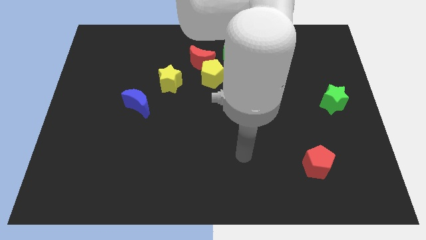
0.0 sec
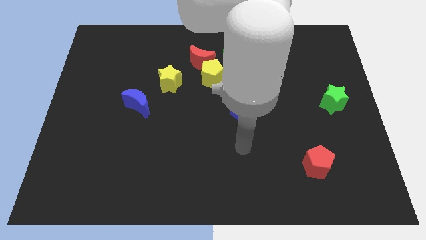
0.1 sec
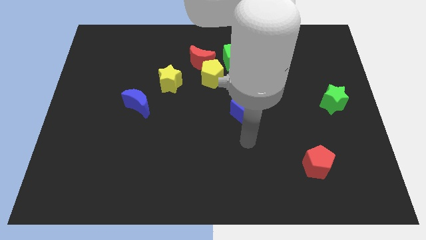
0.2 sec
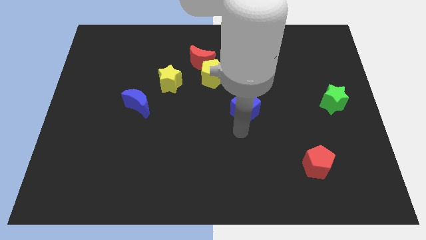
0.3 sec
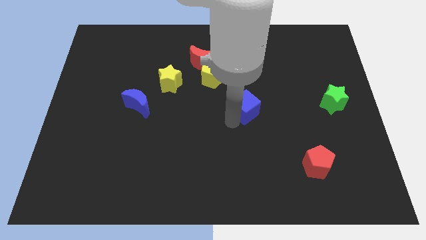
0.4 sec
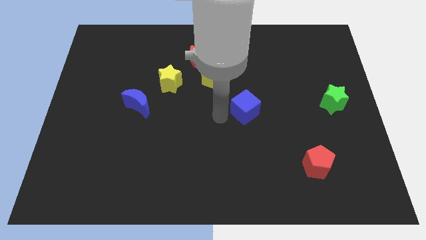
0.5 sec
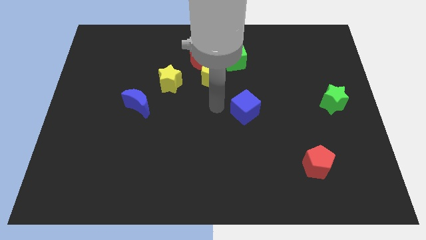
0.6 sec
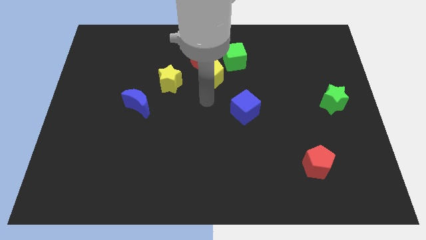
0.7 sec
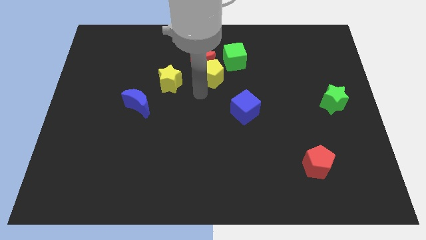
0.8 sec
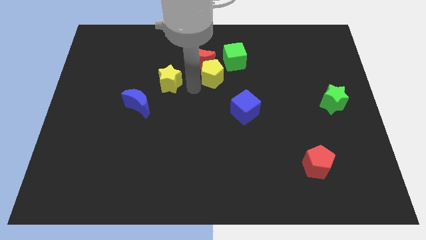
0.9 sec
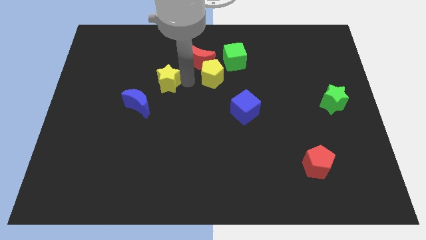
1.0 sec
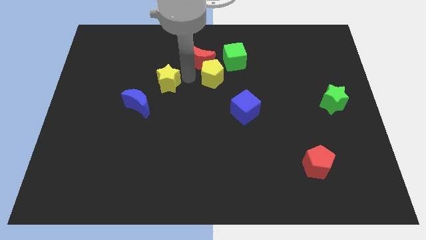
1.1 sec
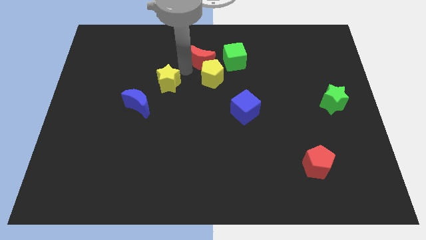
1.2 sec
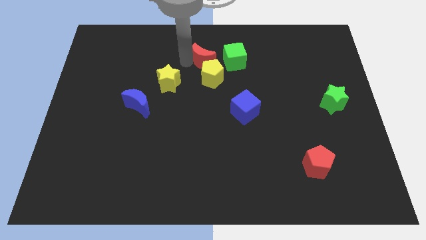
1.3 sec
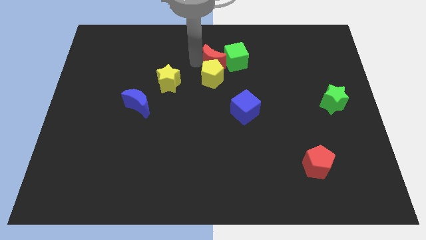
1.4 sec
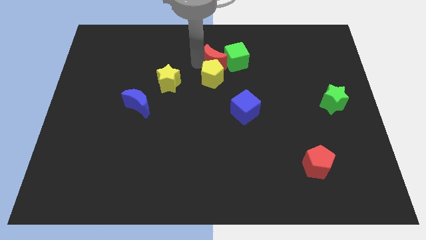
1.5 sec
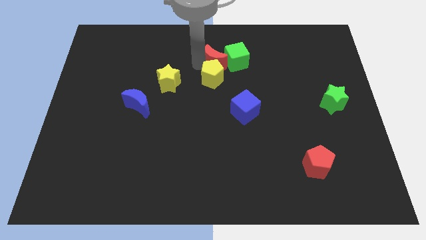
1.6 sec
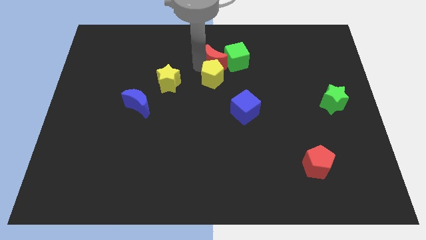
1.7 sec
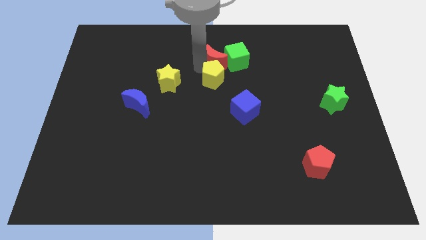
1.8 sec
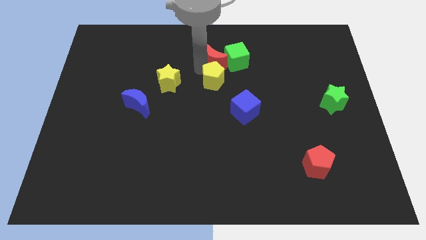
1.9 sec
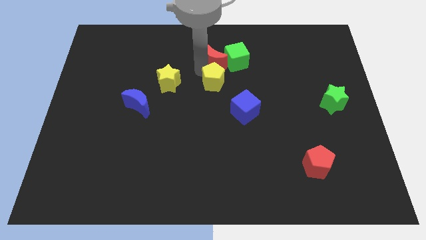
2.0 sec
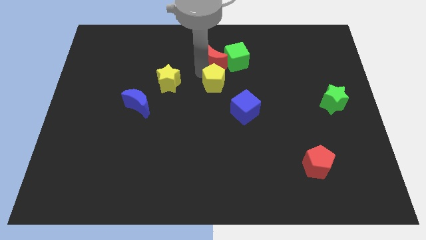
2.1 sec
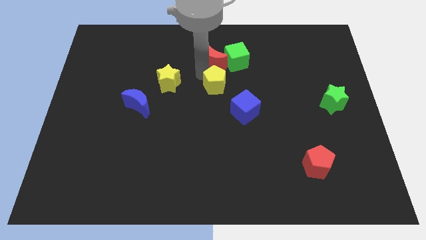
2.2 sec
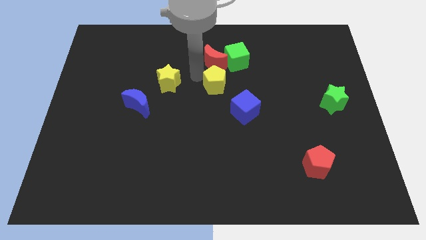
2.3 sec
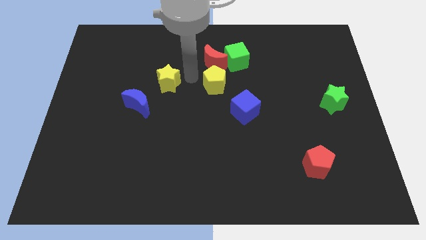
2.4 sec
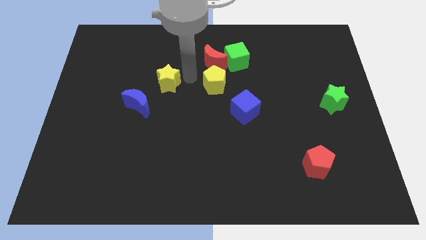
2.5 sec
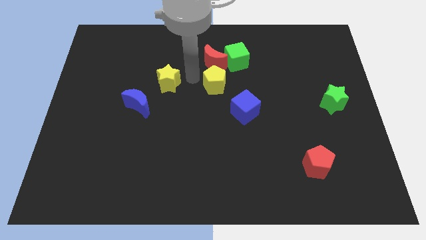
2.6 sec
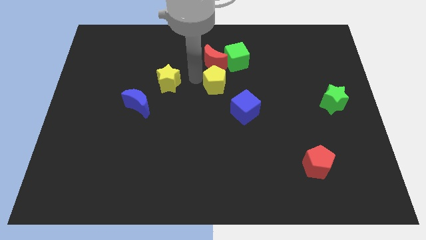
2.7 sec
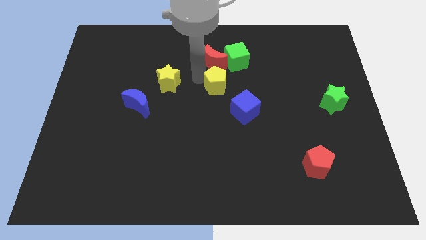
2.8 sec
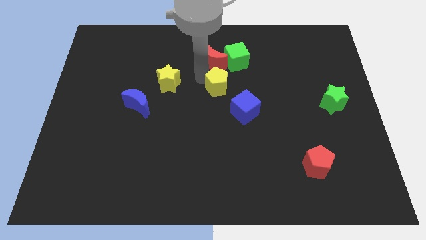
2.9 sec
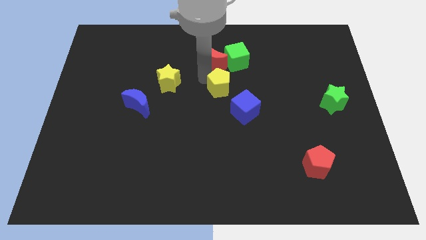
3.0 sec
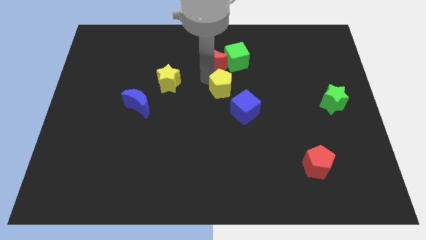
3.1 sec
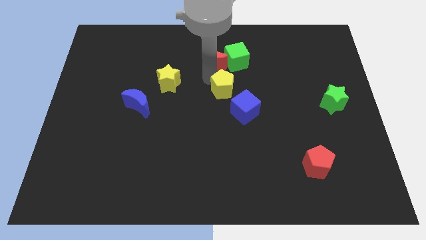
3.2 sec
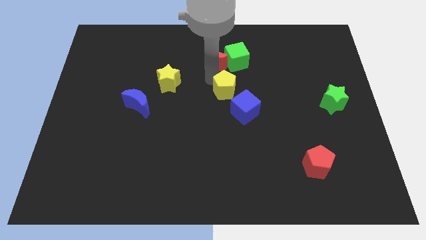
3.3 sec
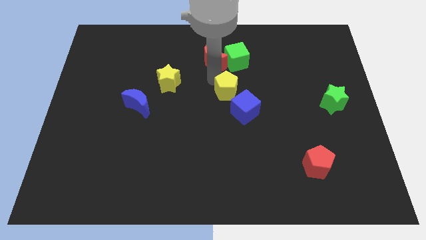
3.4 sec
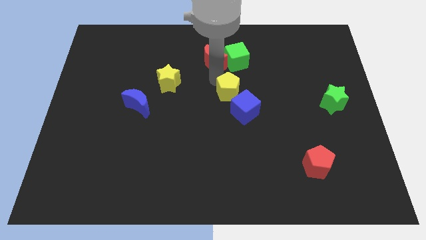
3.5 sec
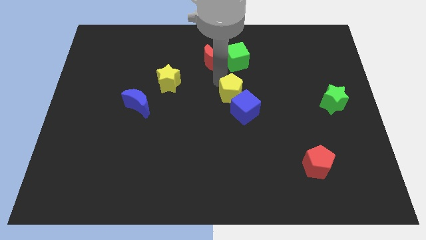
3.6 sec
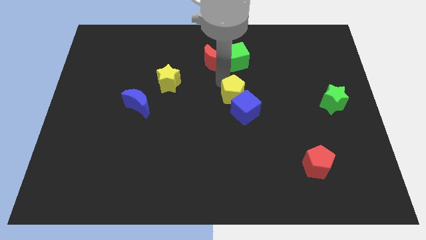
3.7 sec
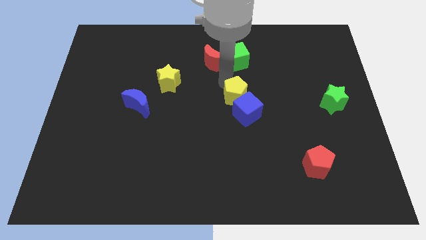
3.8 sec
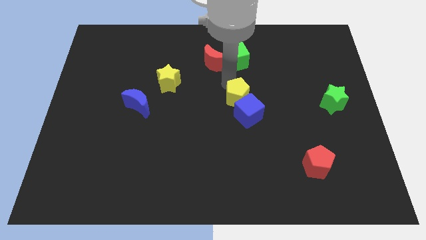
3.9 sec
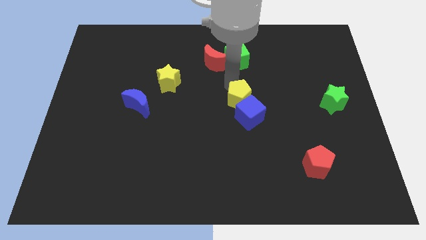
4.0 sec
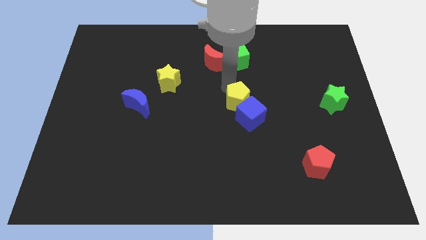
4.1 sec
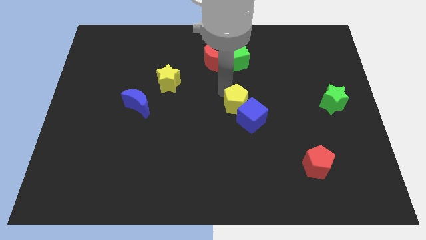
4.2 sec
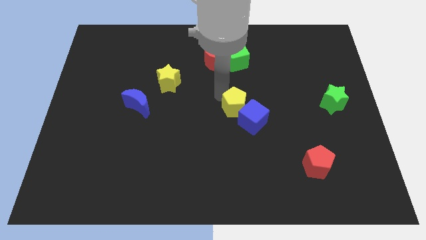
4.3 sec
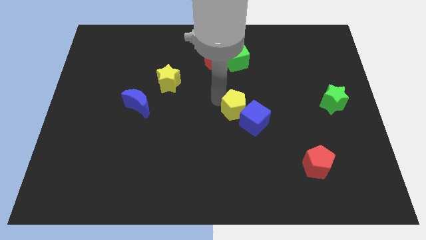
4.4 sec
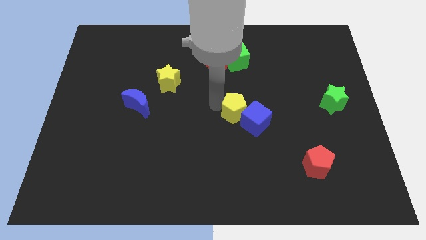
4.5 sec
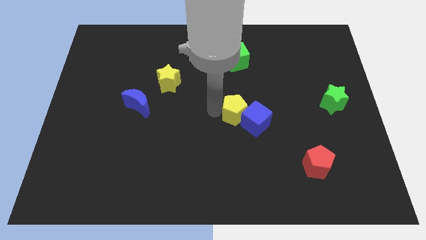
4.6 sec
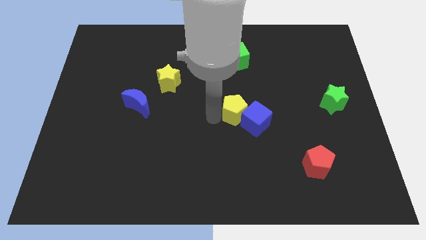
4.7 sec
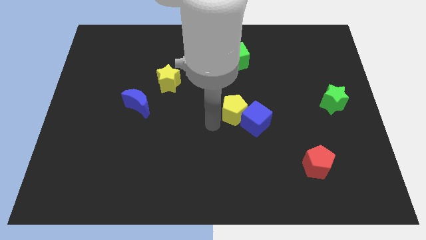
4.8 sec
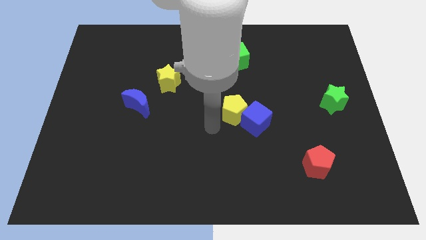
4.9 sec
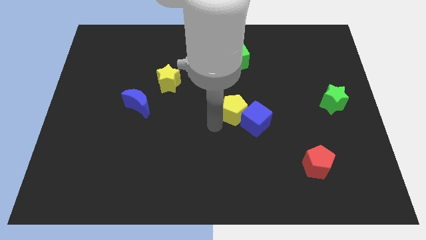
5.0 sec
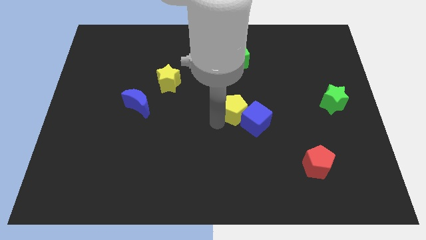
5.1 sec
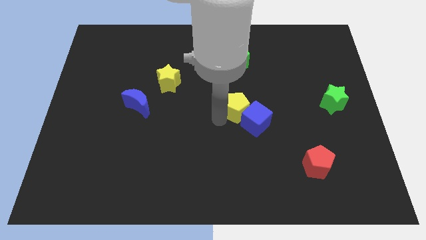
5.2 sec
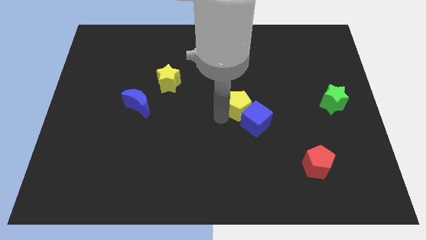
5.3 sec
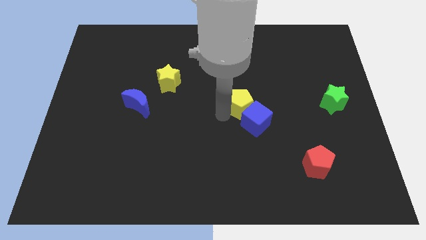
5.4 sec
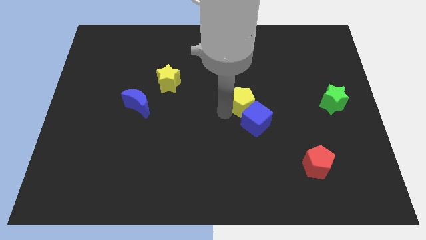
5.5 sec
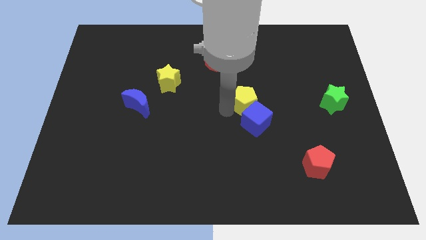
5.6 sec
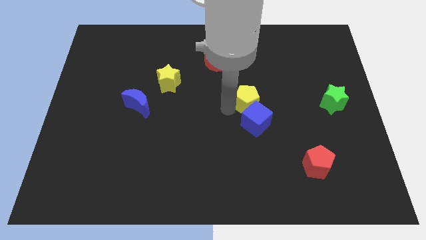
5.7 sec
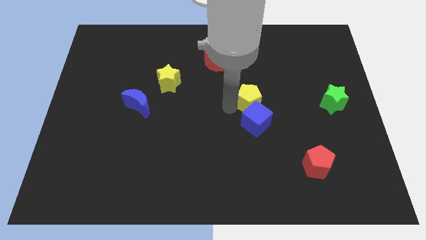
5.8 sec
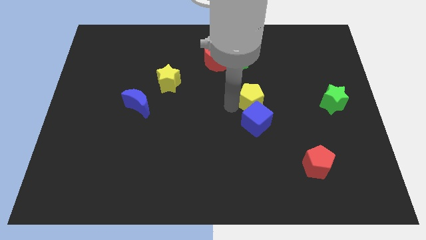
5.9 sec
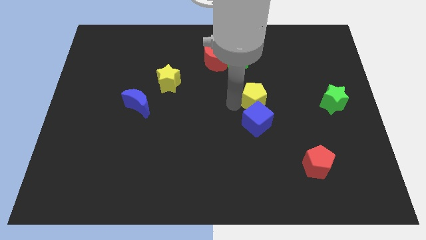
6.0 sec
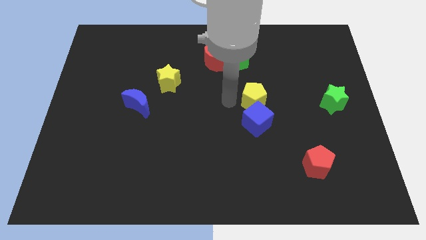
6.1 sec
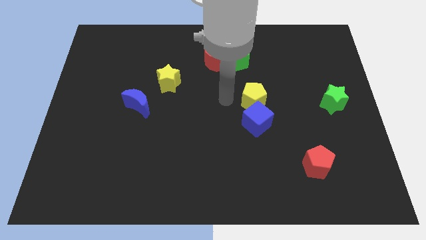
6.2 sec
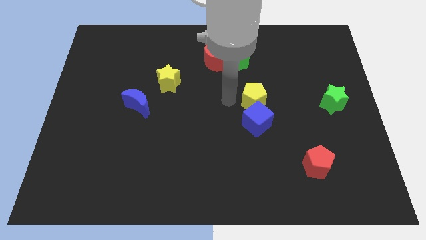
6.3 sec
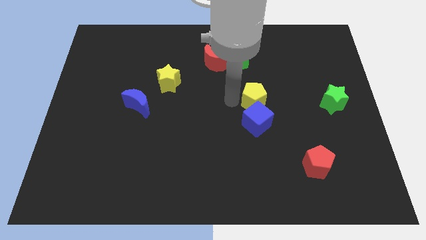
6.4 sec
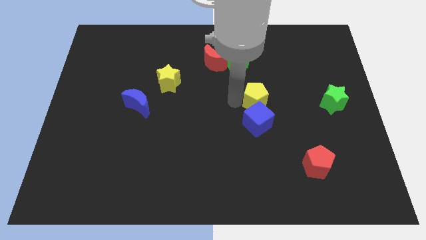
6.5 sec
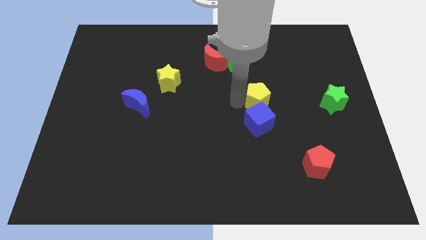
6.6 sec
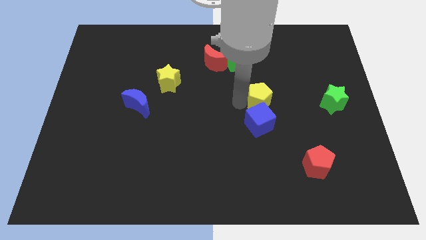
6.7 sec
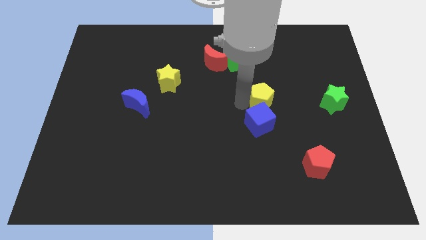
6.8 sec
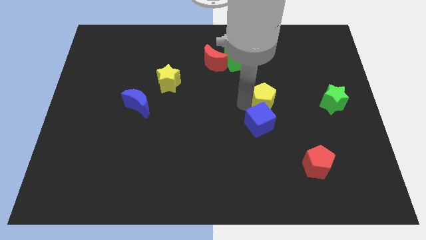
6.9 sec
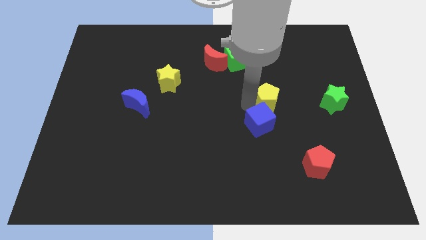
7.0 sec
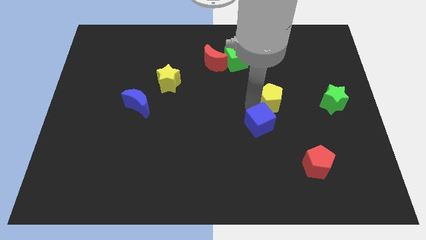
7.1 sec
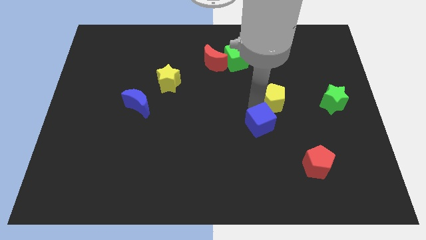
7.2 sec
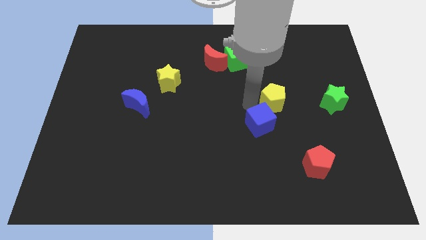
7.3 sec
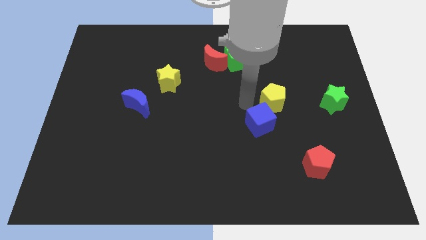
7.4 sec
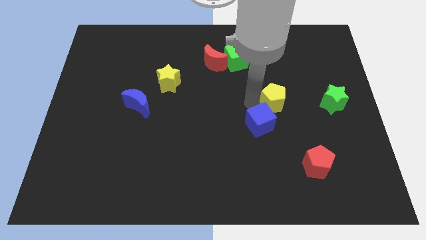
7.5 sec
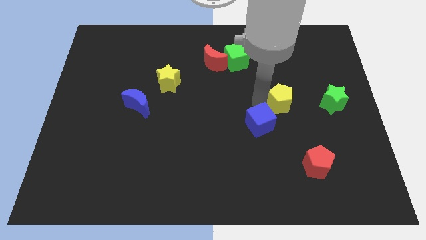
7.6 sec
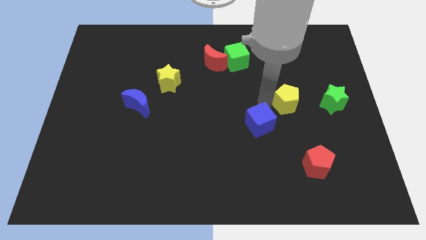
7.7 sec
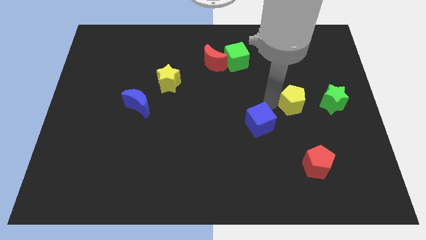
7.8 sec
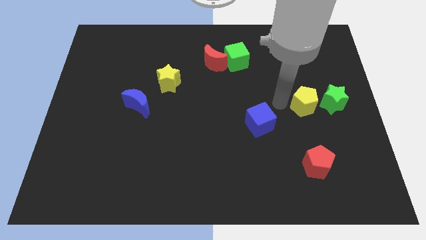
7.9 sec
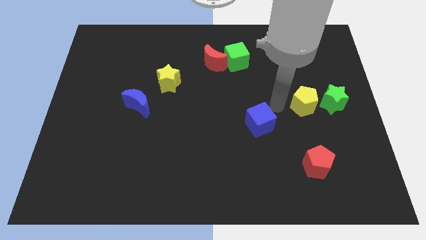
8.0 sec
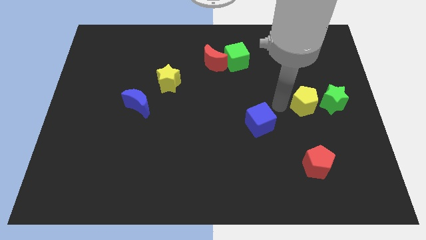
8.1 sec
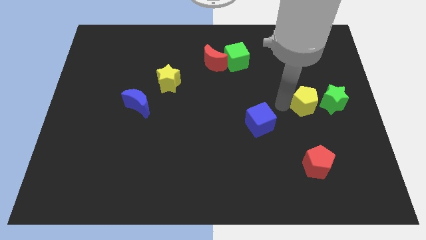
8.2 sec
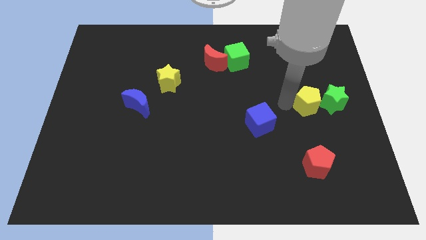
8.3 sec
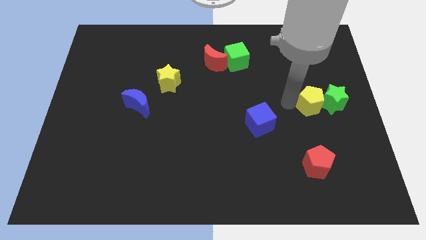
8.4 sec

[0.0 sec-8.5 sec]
put the yellow pentagon next to the green star
